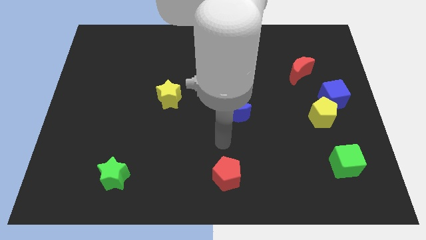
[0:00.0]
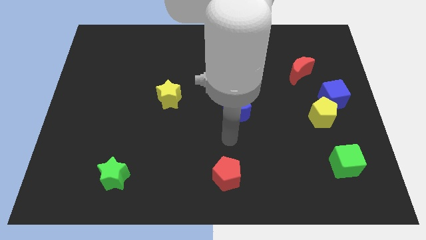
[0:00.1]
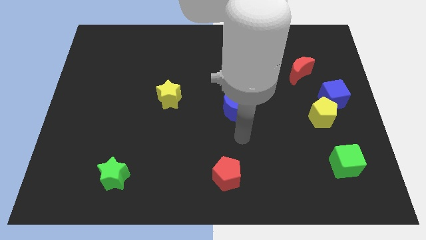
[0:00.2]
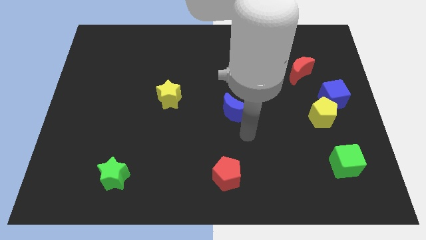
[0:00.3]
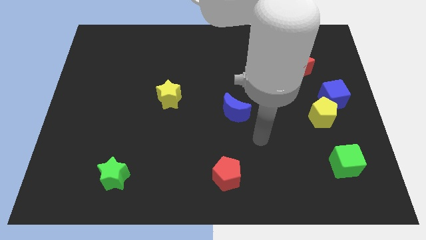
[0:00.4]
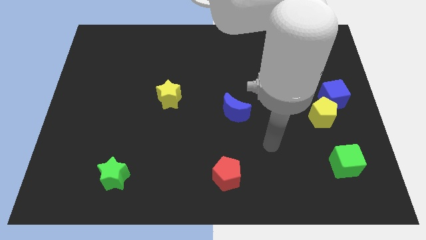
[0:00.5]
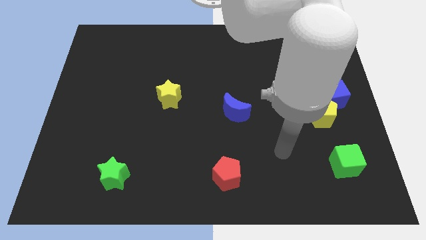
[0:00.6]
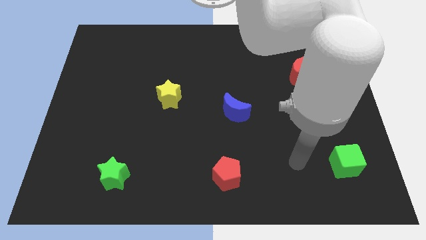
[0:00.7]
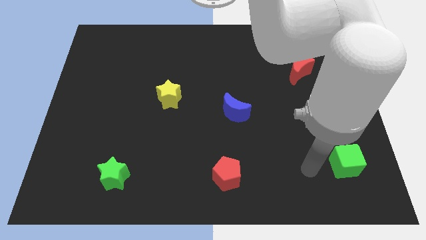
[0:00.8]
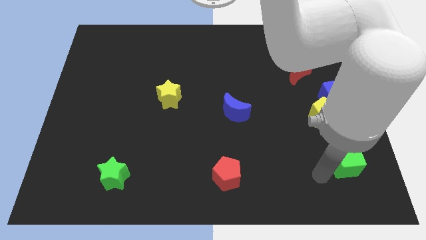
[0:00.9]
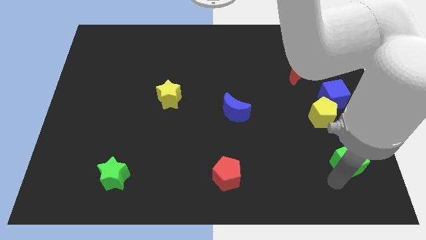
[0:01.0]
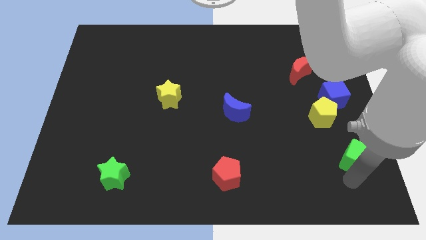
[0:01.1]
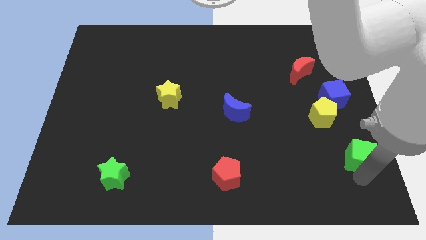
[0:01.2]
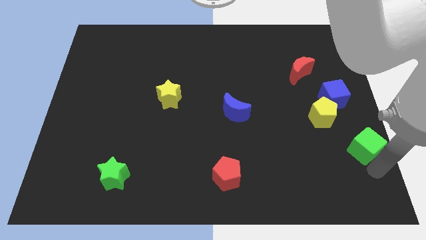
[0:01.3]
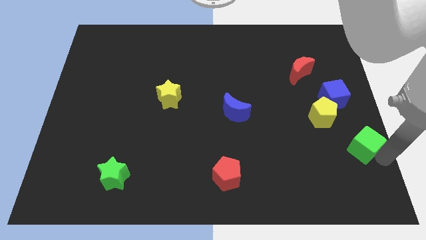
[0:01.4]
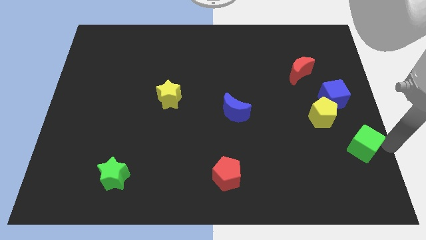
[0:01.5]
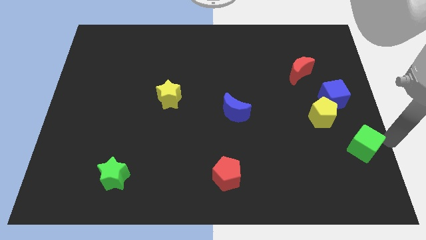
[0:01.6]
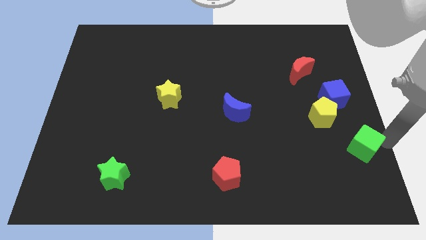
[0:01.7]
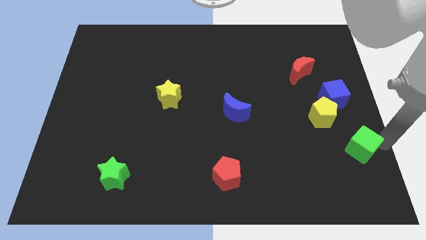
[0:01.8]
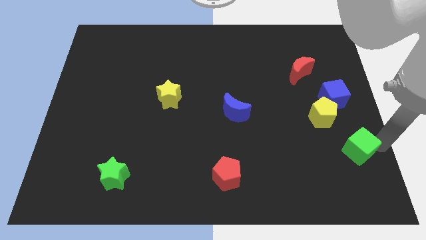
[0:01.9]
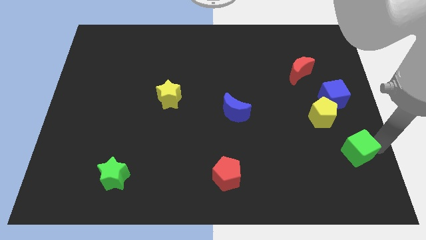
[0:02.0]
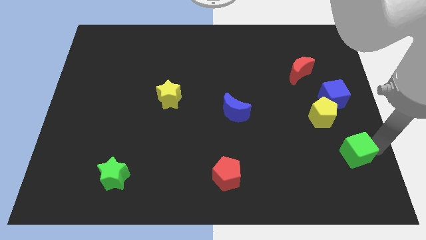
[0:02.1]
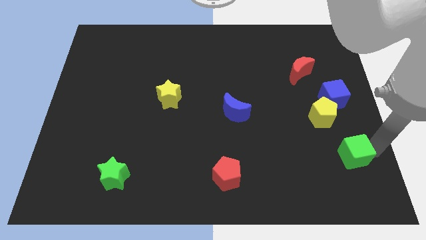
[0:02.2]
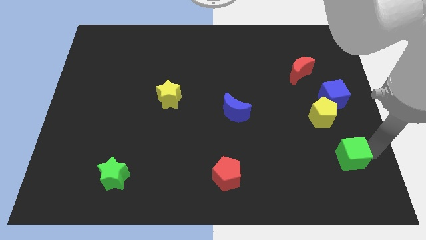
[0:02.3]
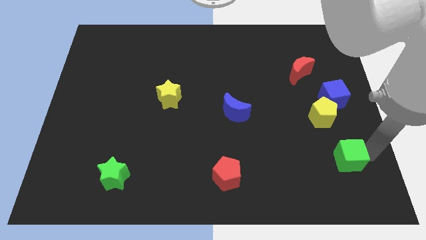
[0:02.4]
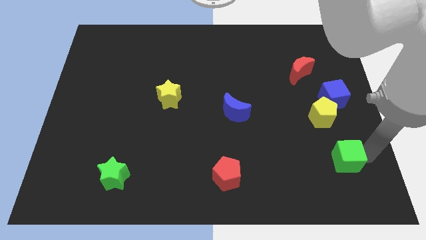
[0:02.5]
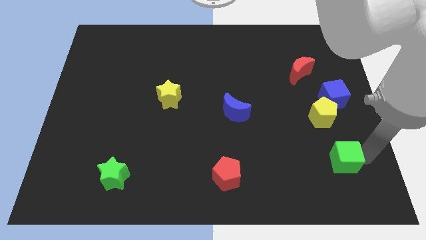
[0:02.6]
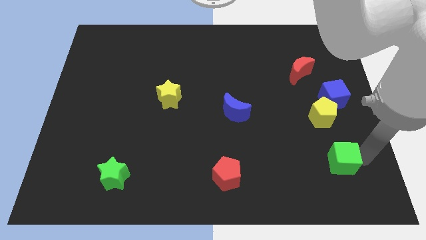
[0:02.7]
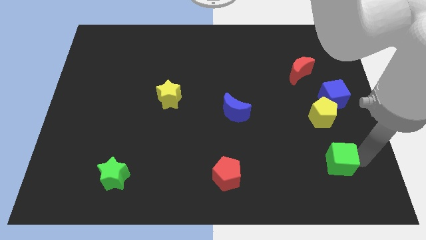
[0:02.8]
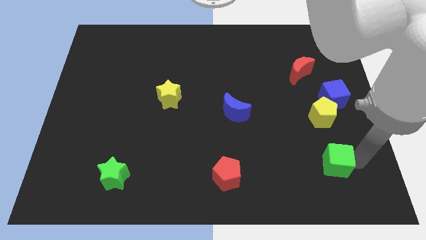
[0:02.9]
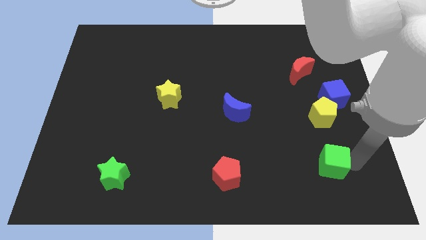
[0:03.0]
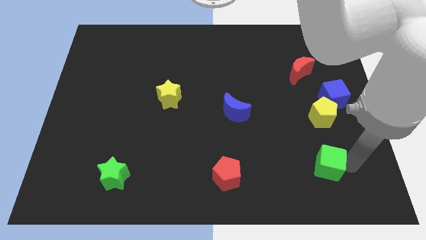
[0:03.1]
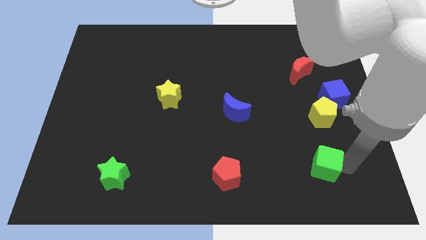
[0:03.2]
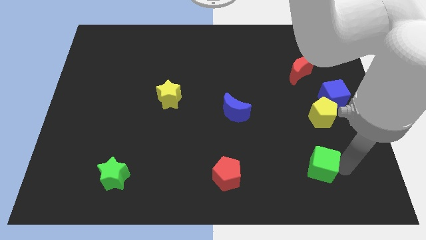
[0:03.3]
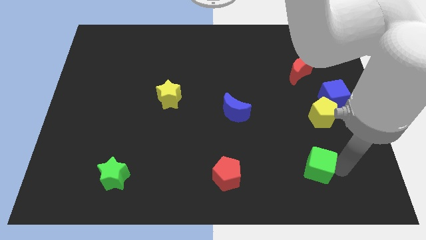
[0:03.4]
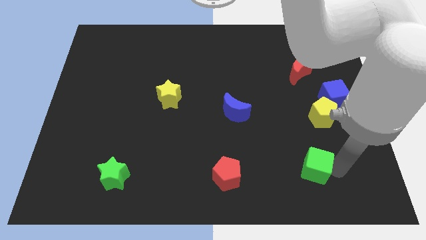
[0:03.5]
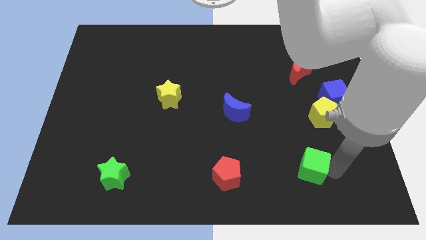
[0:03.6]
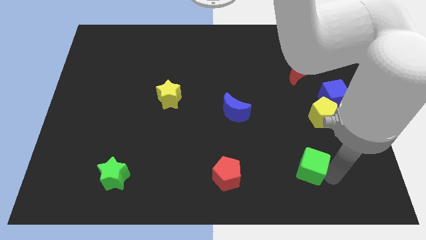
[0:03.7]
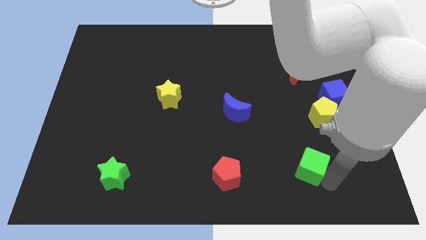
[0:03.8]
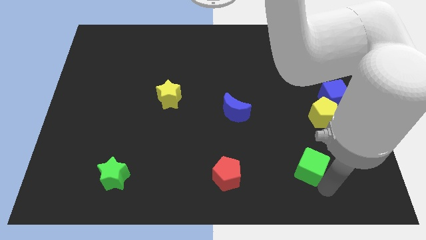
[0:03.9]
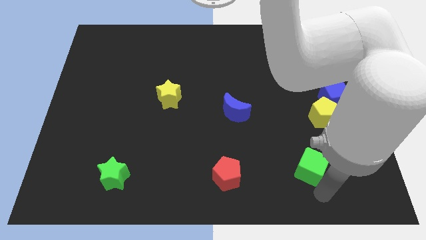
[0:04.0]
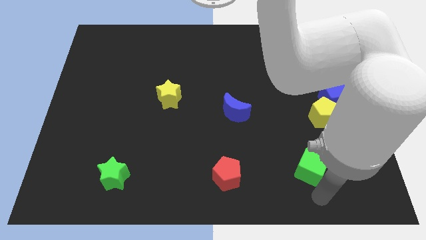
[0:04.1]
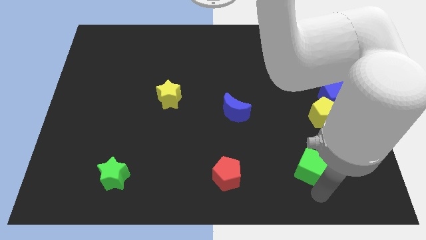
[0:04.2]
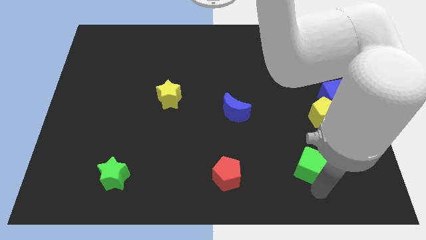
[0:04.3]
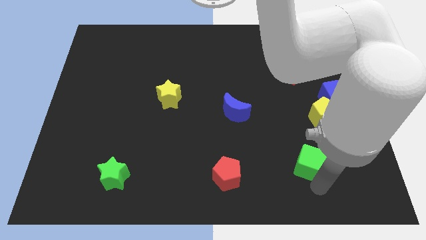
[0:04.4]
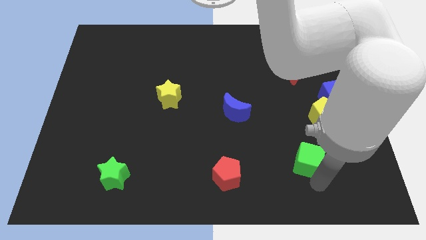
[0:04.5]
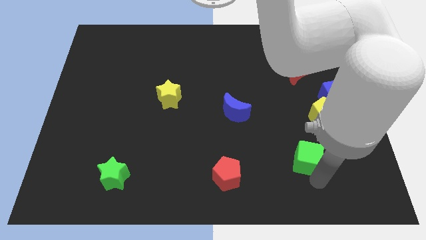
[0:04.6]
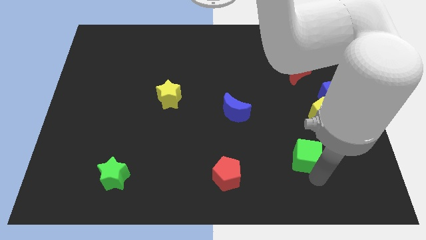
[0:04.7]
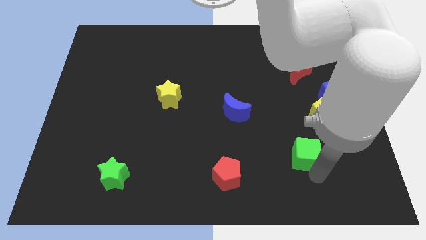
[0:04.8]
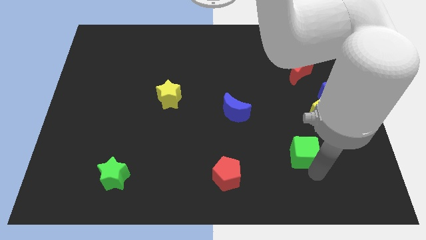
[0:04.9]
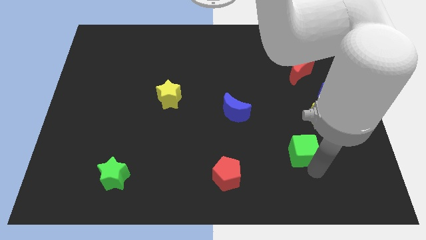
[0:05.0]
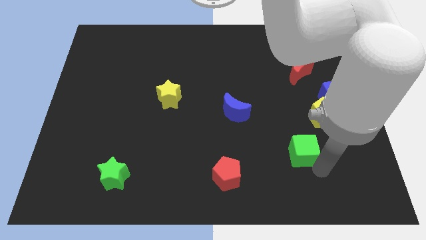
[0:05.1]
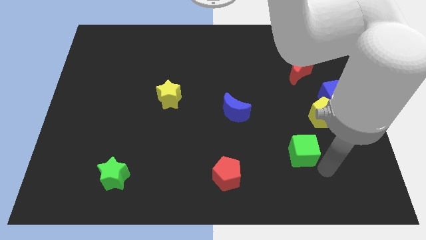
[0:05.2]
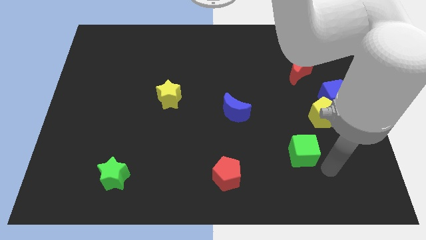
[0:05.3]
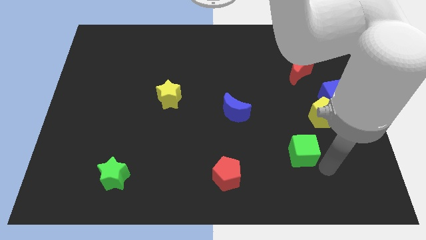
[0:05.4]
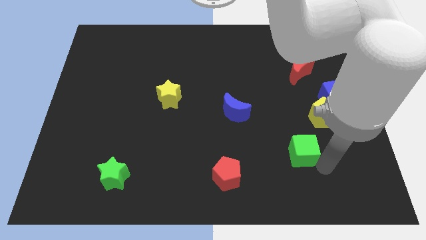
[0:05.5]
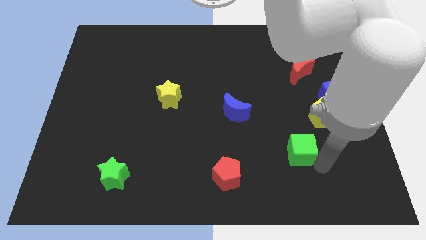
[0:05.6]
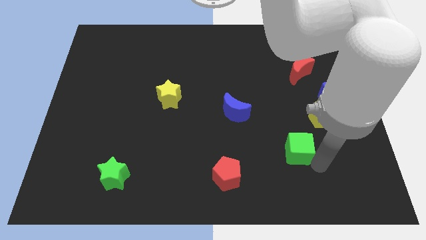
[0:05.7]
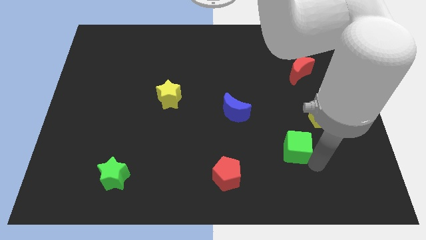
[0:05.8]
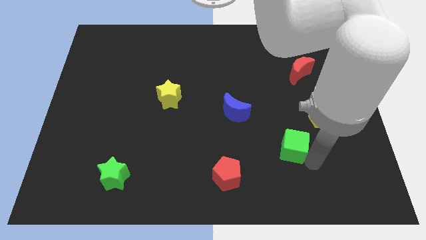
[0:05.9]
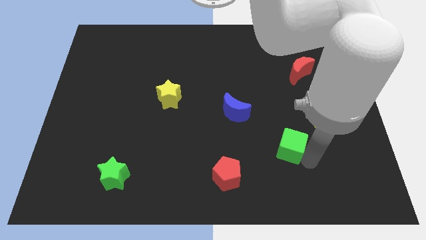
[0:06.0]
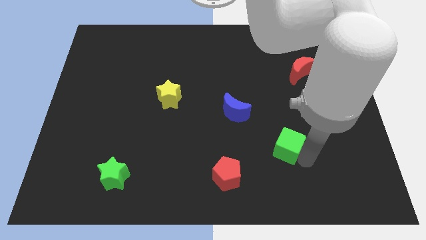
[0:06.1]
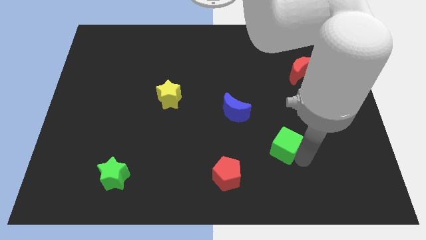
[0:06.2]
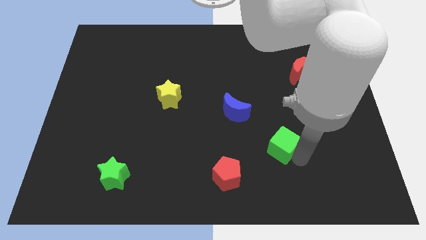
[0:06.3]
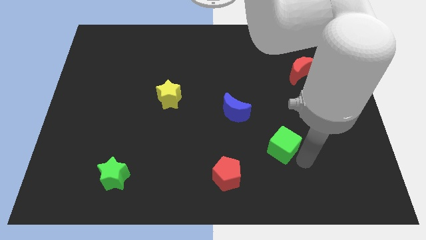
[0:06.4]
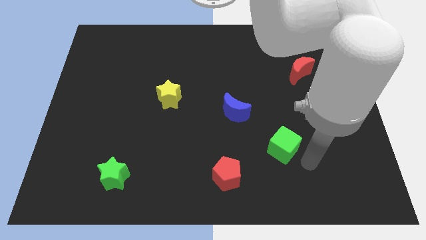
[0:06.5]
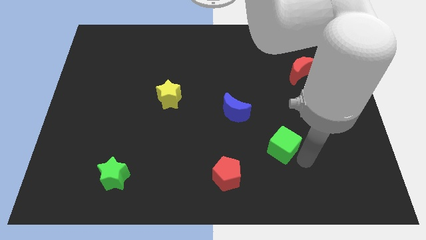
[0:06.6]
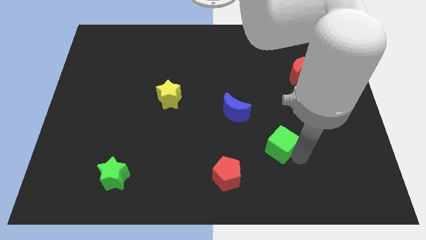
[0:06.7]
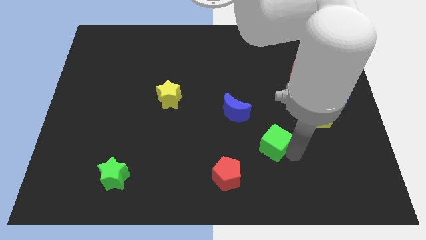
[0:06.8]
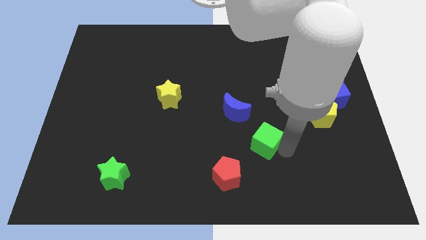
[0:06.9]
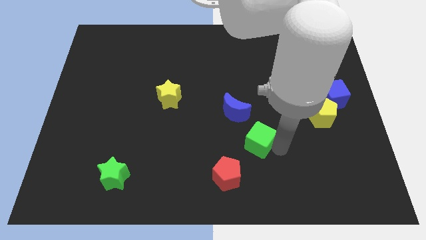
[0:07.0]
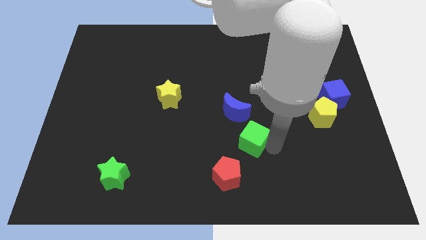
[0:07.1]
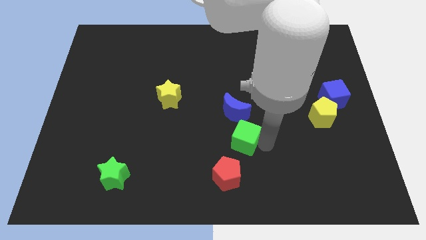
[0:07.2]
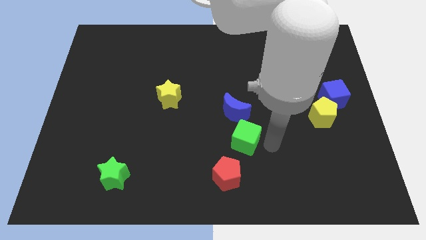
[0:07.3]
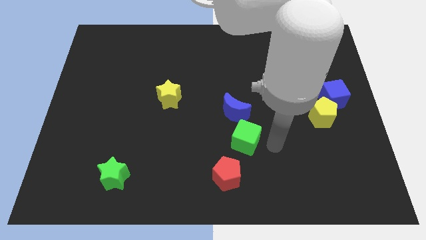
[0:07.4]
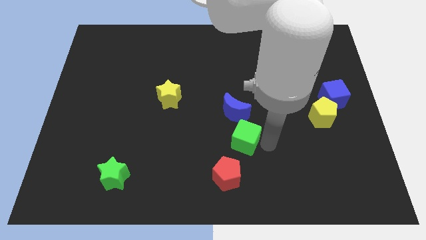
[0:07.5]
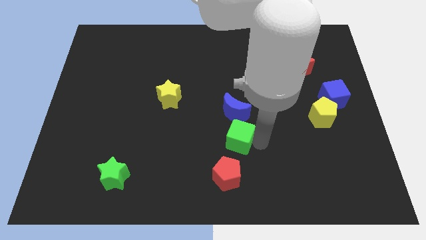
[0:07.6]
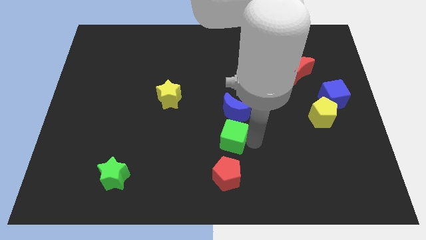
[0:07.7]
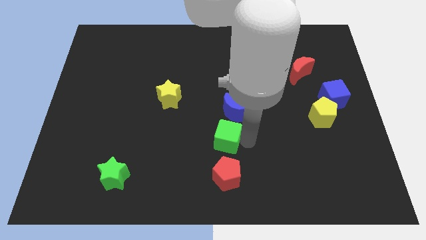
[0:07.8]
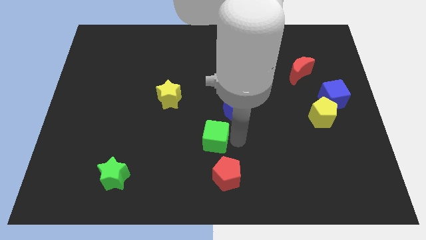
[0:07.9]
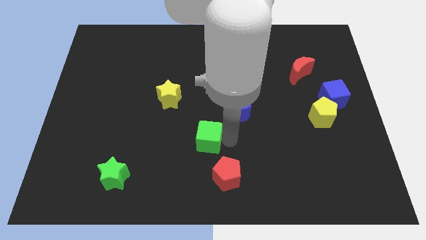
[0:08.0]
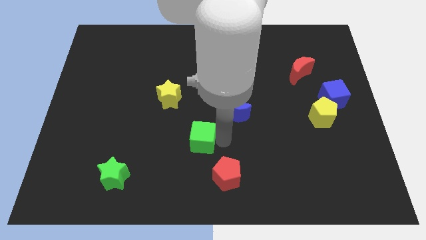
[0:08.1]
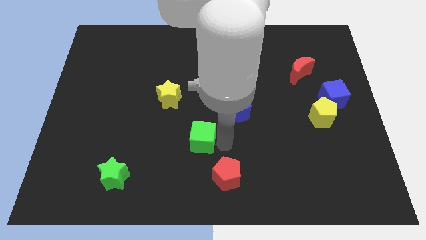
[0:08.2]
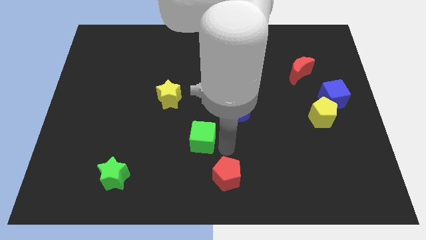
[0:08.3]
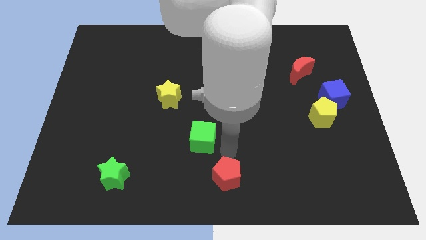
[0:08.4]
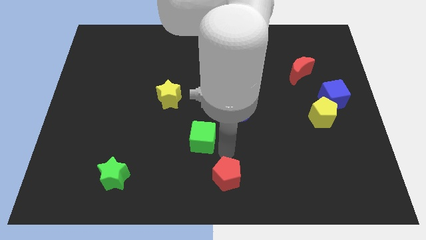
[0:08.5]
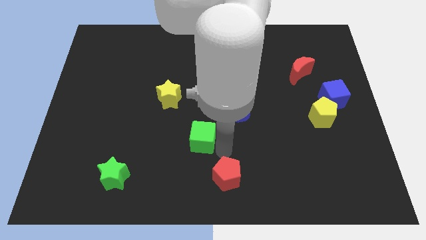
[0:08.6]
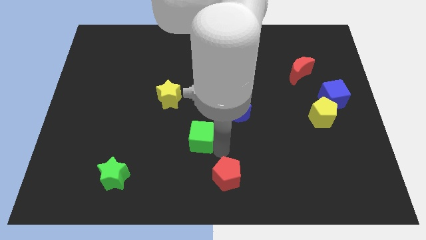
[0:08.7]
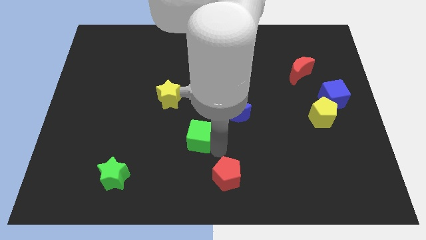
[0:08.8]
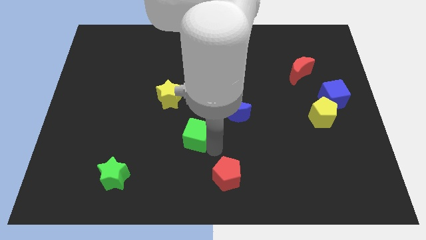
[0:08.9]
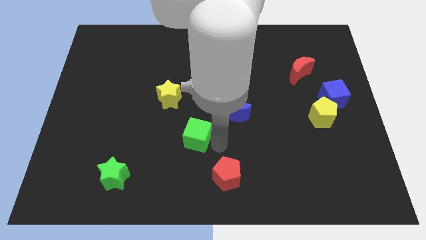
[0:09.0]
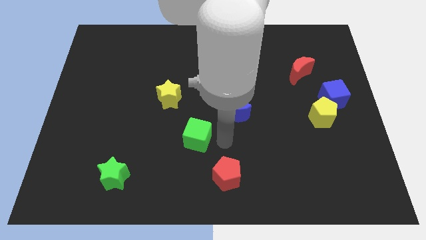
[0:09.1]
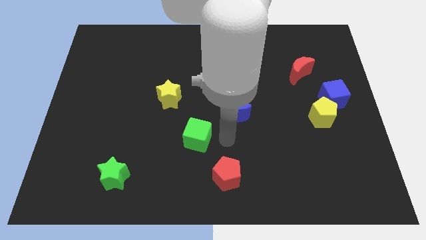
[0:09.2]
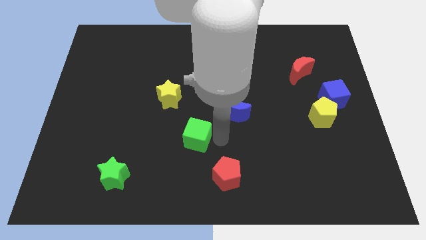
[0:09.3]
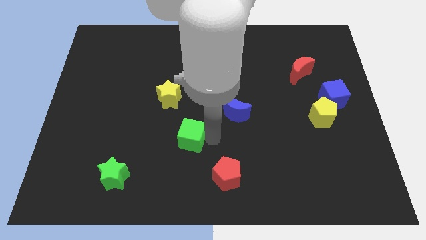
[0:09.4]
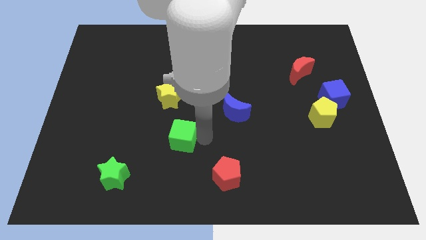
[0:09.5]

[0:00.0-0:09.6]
slide the green cube to the bottom side of the yellow star
